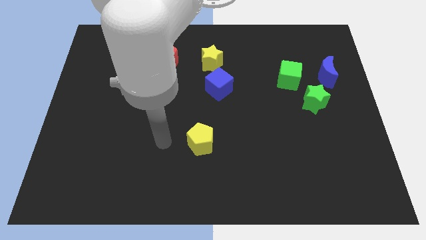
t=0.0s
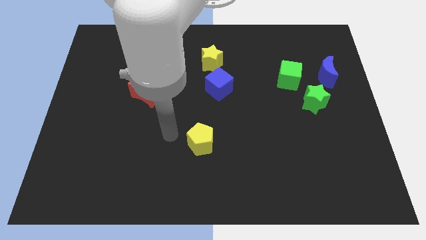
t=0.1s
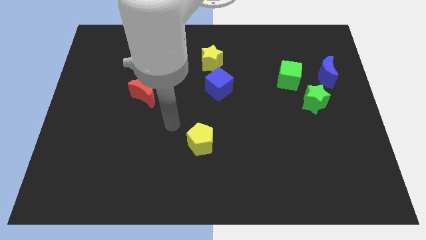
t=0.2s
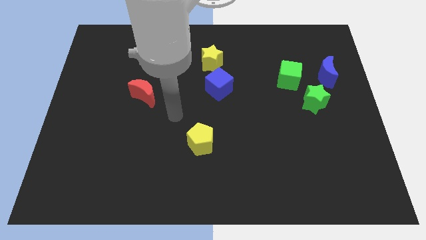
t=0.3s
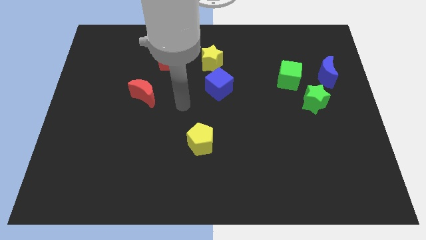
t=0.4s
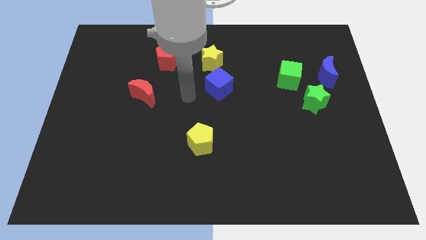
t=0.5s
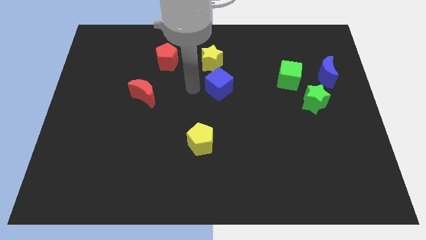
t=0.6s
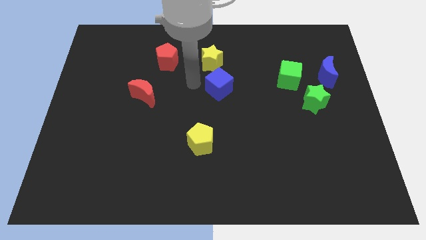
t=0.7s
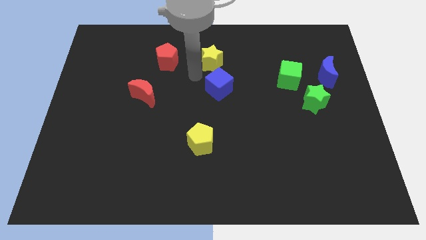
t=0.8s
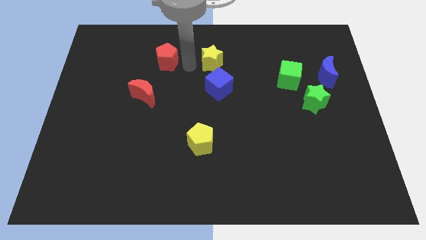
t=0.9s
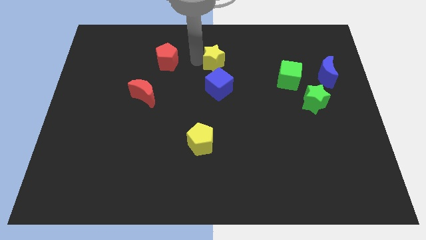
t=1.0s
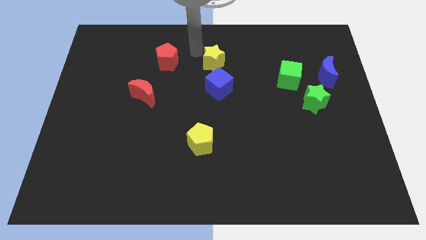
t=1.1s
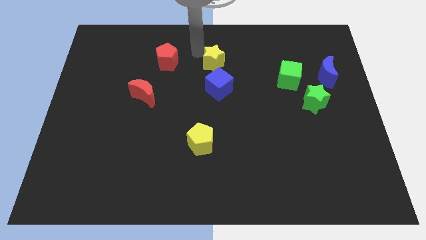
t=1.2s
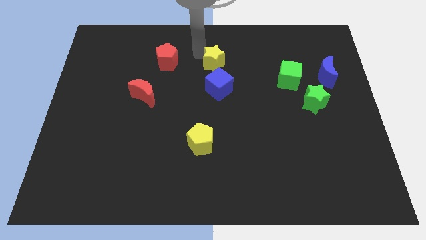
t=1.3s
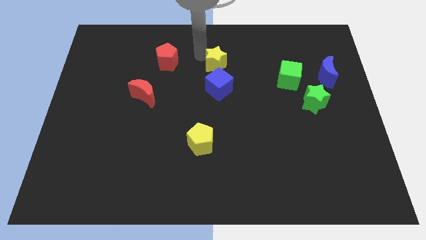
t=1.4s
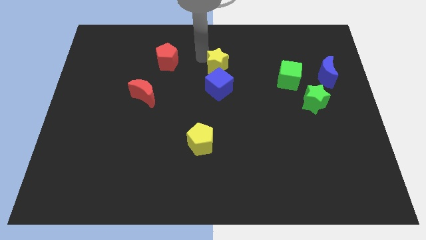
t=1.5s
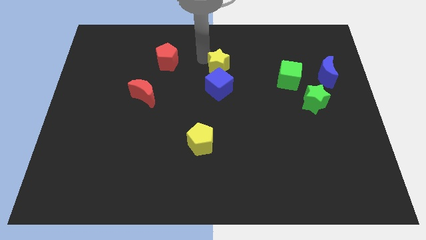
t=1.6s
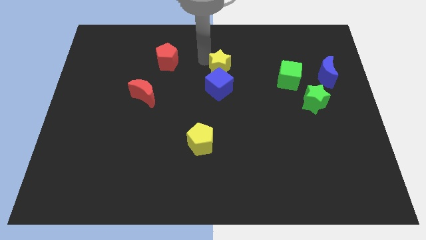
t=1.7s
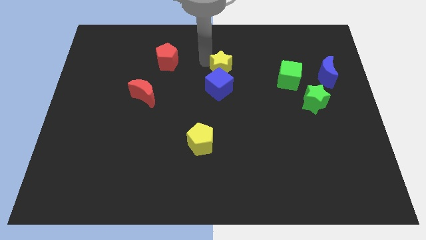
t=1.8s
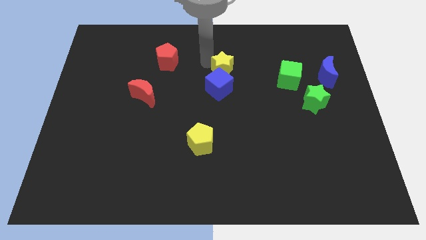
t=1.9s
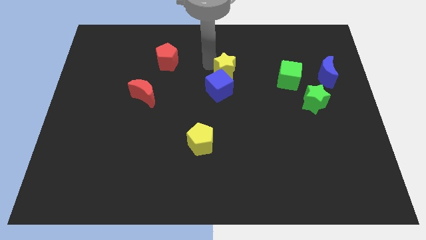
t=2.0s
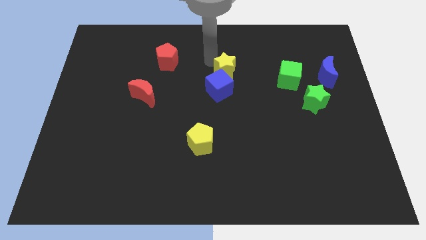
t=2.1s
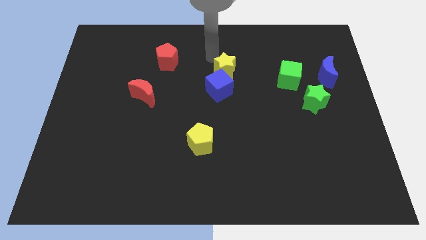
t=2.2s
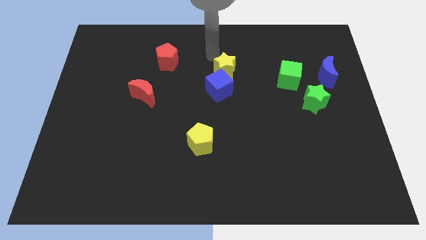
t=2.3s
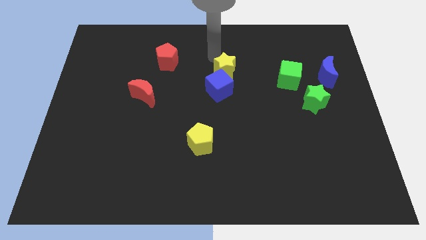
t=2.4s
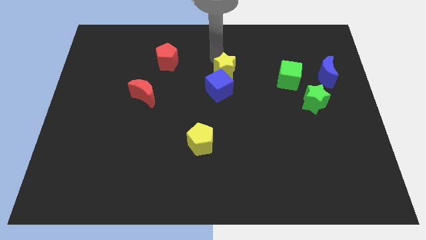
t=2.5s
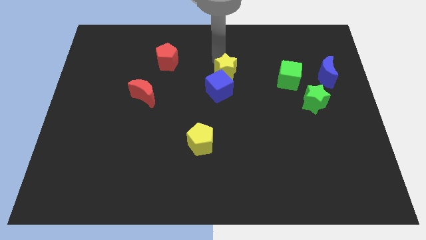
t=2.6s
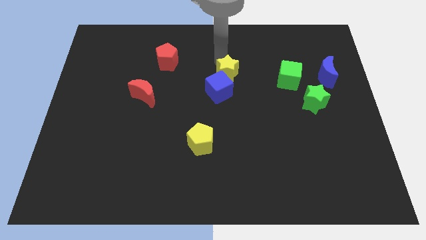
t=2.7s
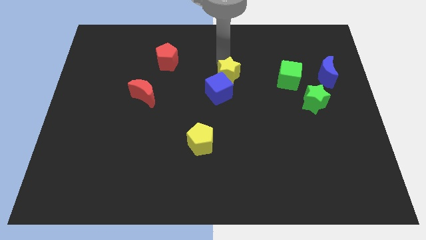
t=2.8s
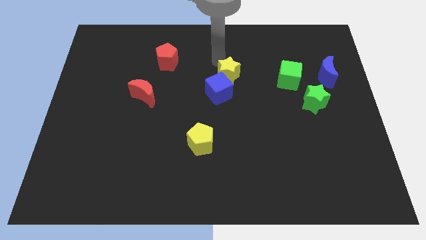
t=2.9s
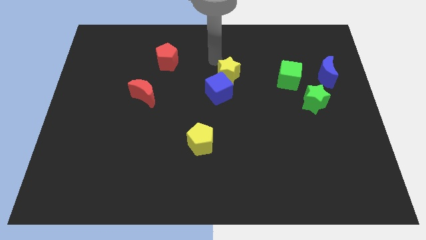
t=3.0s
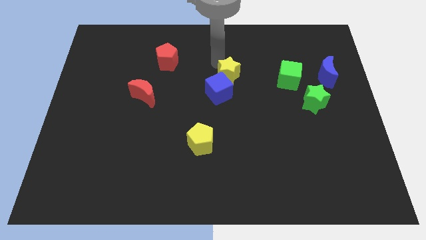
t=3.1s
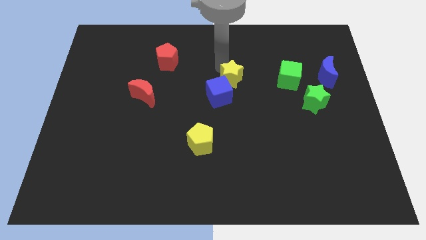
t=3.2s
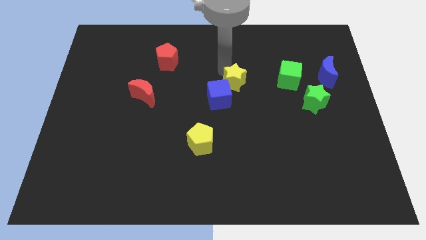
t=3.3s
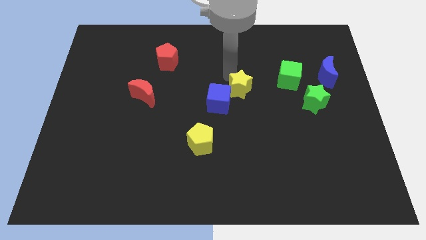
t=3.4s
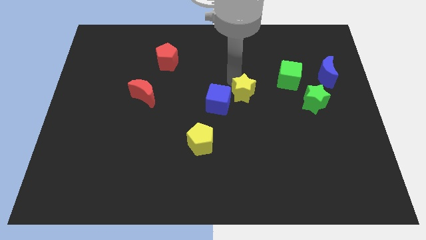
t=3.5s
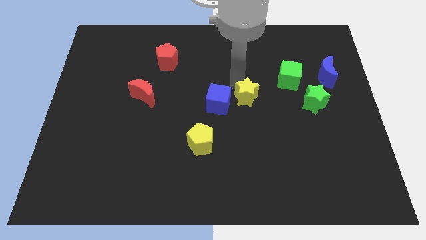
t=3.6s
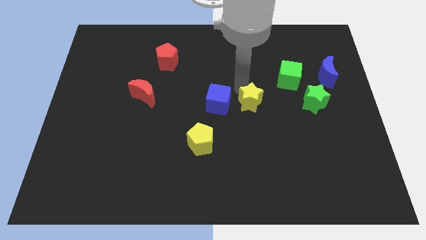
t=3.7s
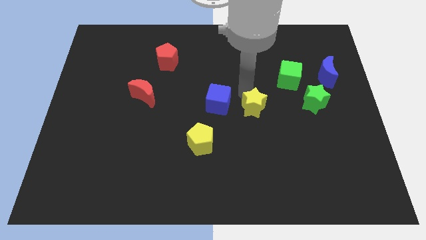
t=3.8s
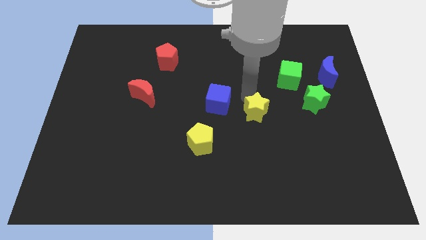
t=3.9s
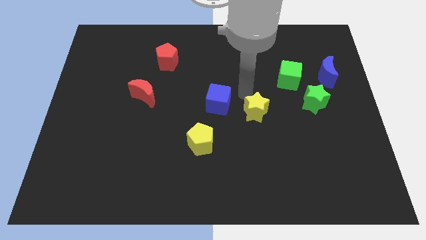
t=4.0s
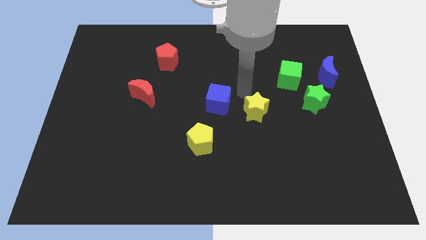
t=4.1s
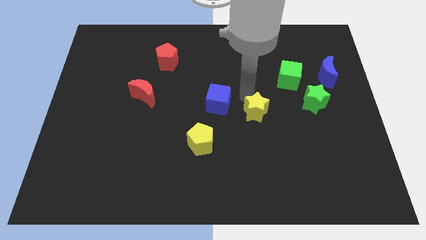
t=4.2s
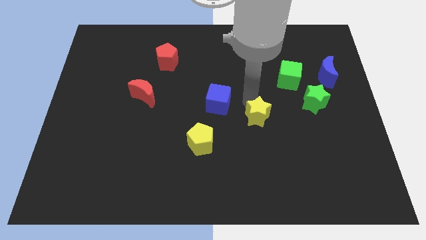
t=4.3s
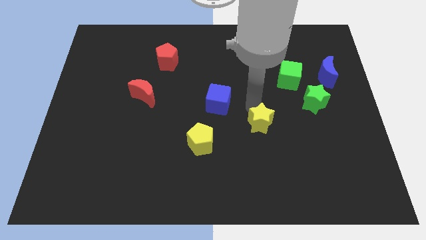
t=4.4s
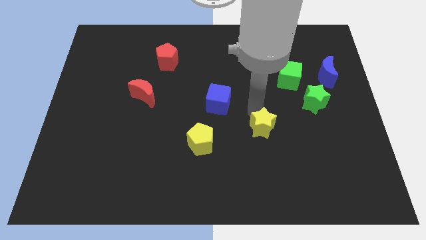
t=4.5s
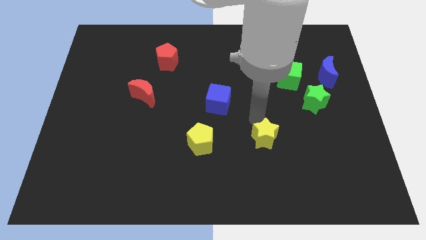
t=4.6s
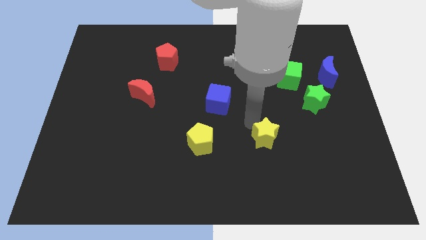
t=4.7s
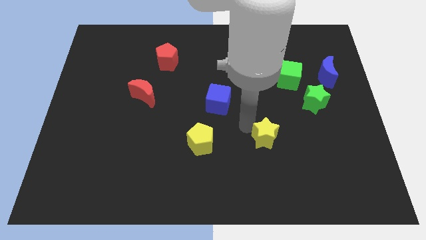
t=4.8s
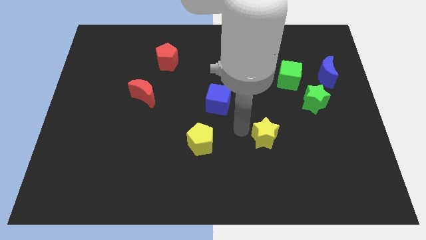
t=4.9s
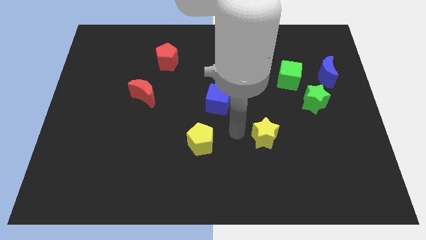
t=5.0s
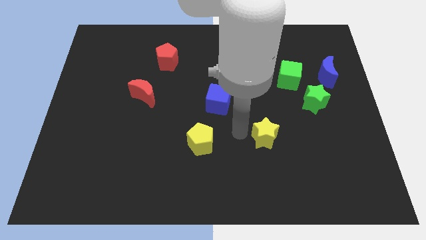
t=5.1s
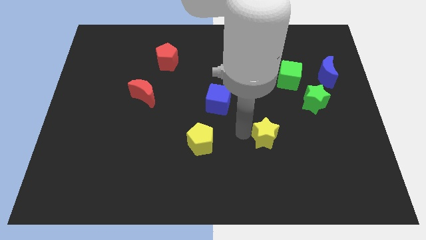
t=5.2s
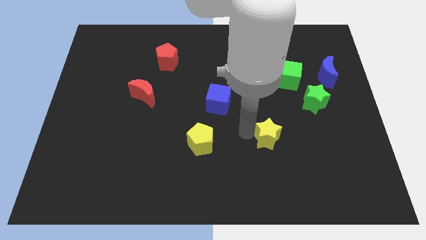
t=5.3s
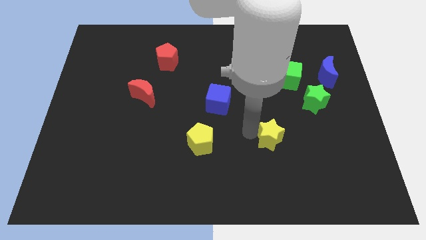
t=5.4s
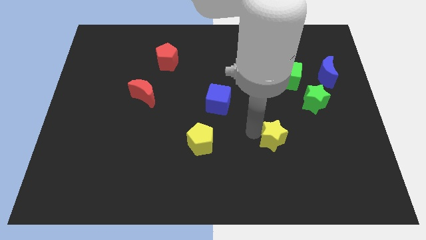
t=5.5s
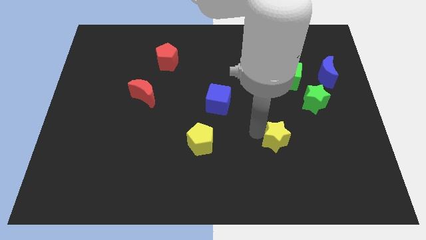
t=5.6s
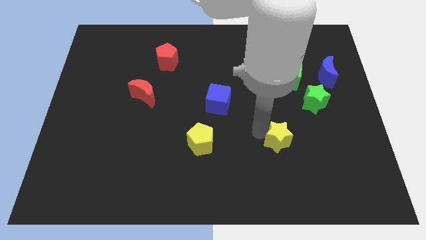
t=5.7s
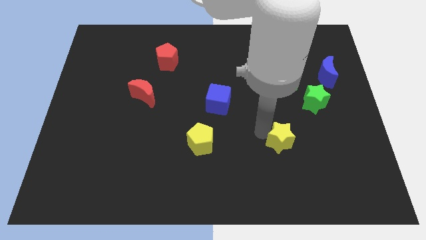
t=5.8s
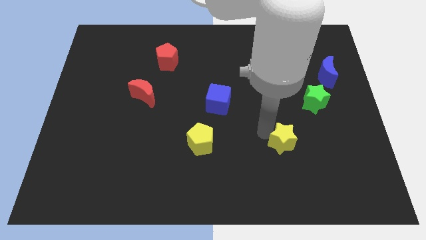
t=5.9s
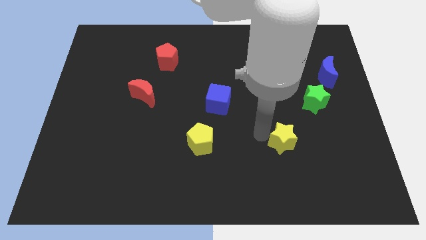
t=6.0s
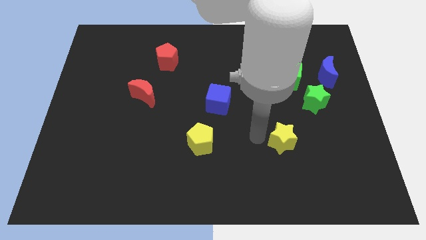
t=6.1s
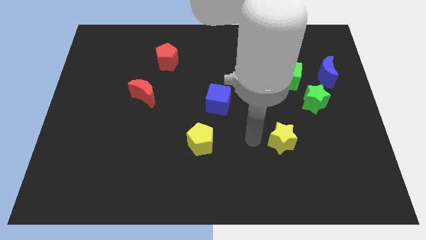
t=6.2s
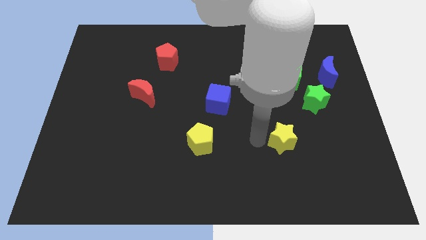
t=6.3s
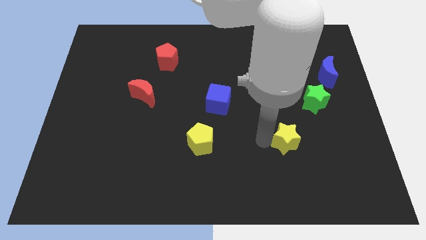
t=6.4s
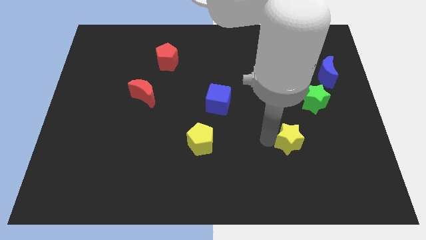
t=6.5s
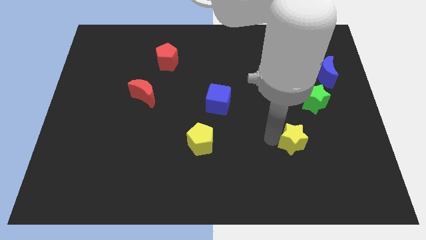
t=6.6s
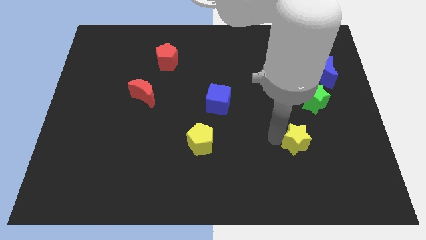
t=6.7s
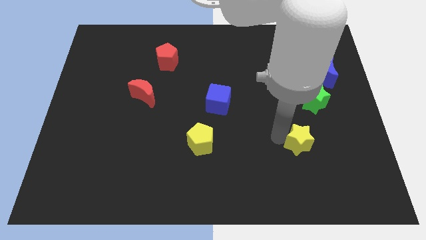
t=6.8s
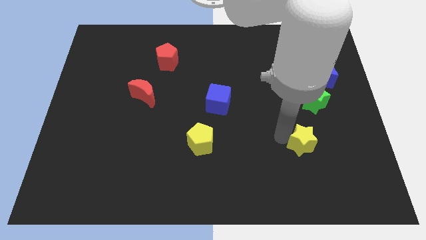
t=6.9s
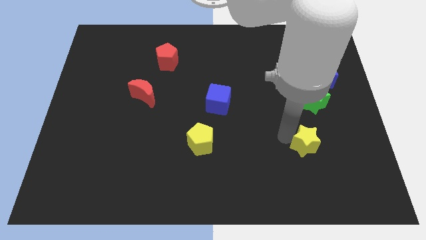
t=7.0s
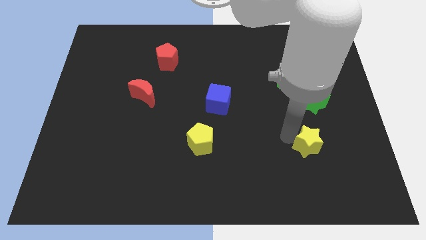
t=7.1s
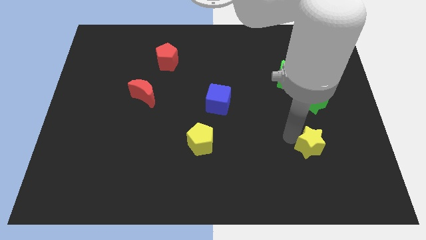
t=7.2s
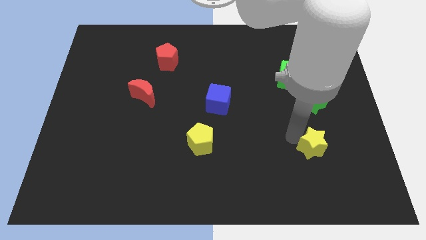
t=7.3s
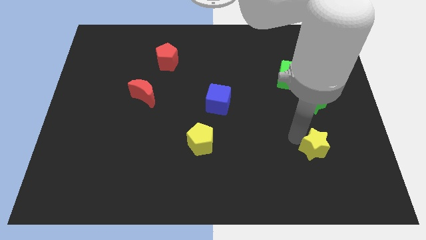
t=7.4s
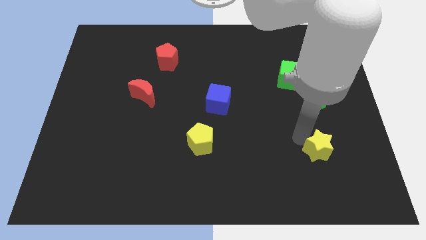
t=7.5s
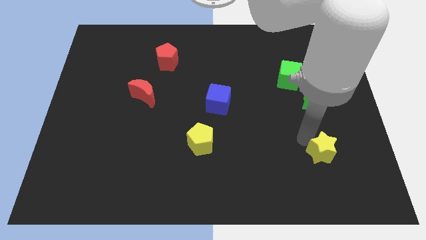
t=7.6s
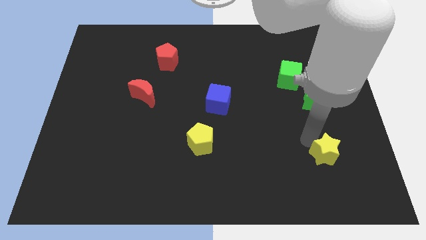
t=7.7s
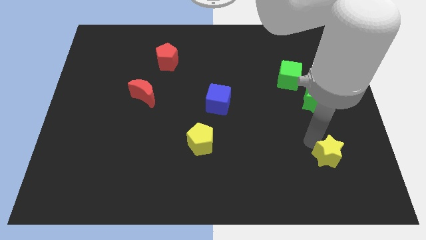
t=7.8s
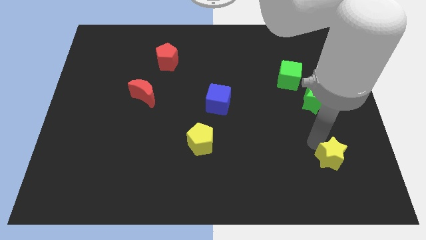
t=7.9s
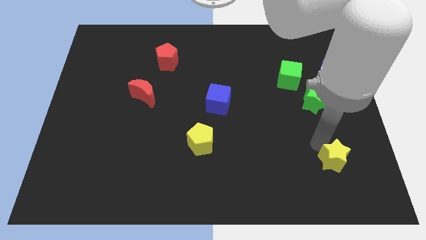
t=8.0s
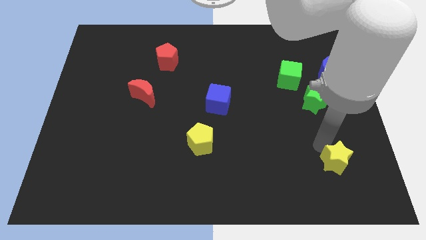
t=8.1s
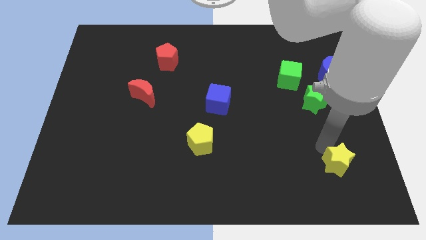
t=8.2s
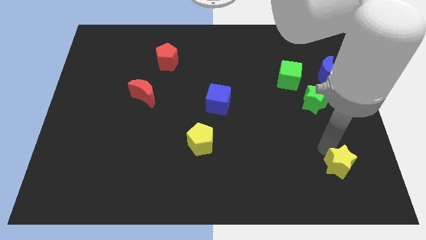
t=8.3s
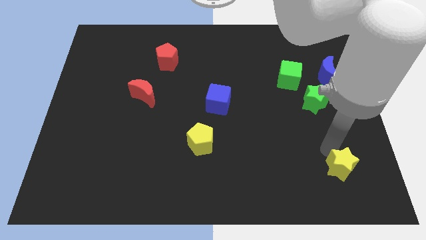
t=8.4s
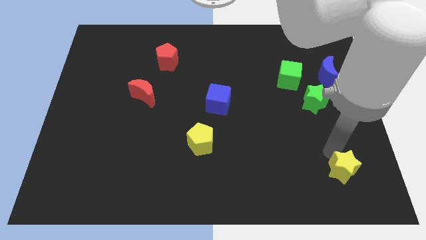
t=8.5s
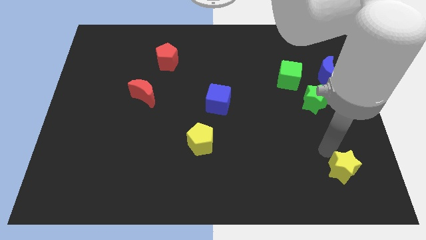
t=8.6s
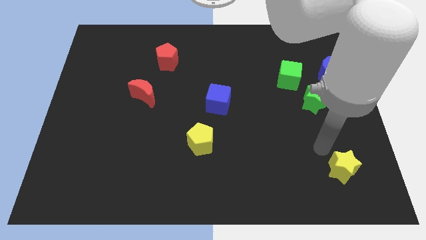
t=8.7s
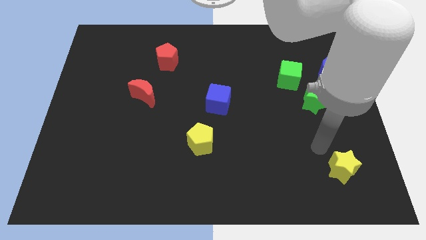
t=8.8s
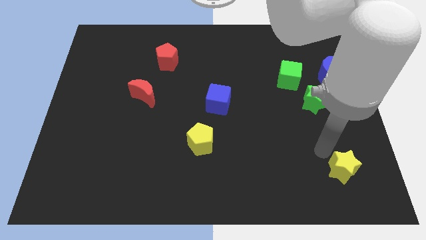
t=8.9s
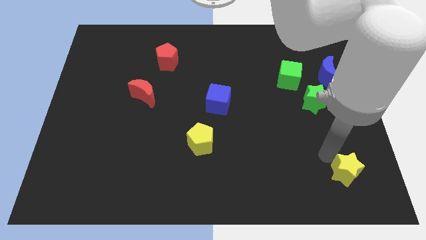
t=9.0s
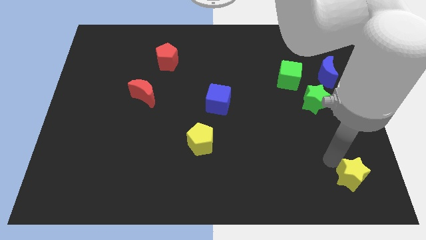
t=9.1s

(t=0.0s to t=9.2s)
move the yellow star to the bottom right
